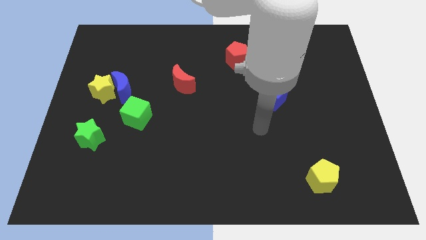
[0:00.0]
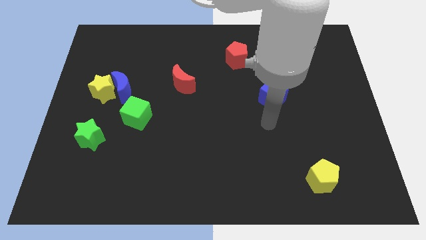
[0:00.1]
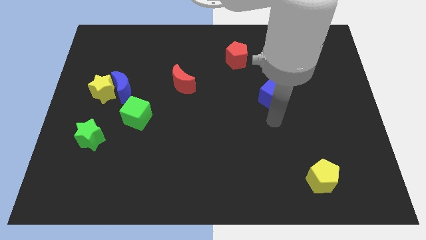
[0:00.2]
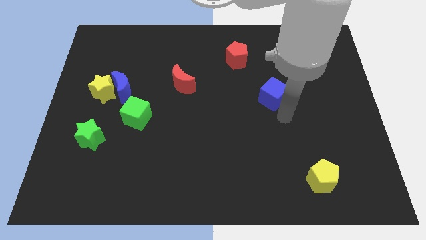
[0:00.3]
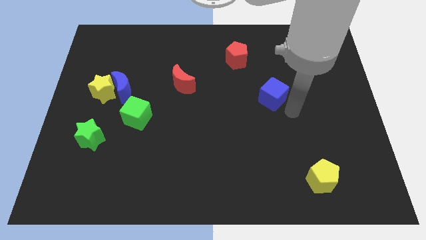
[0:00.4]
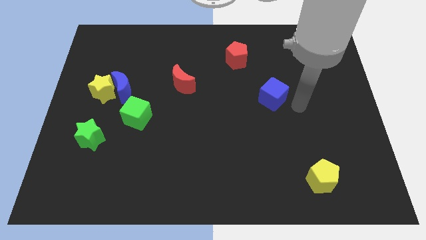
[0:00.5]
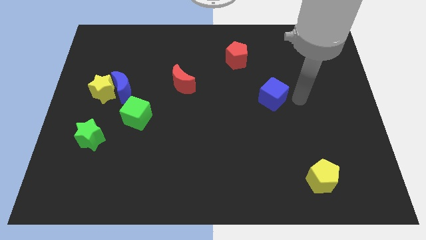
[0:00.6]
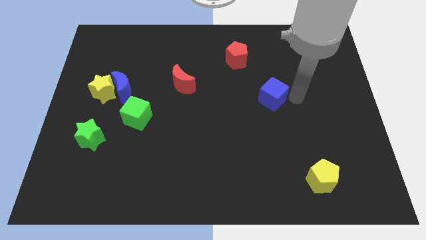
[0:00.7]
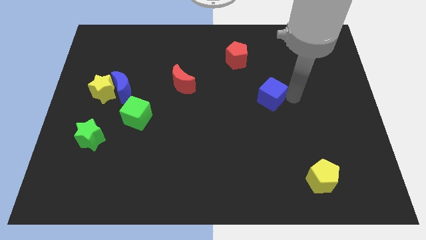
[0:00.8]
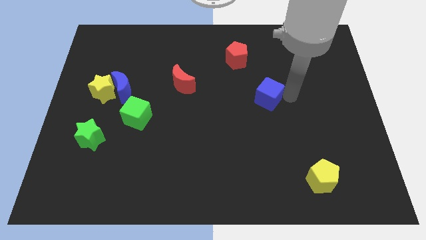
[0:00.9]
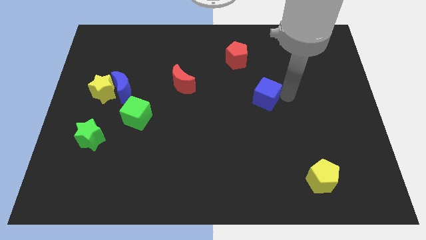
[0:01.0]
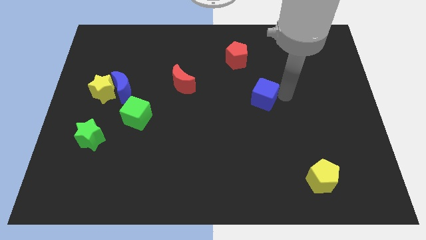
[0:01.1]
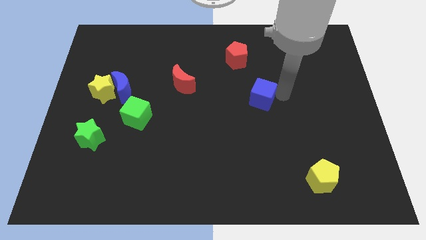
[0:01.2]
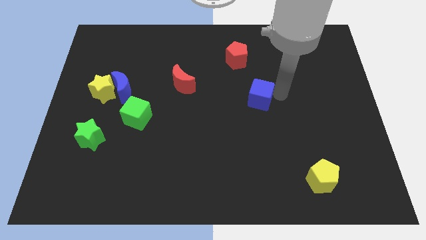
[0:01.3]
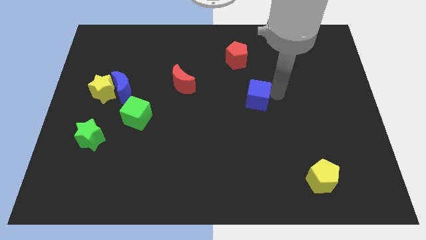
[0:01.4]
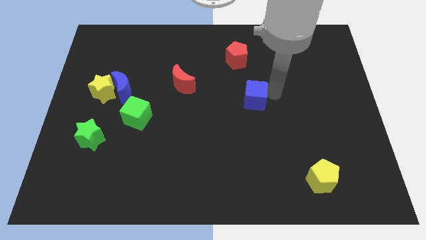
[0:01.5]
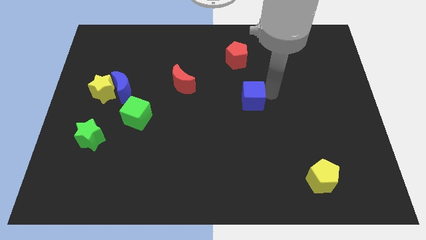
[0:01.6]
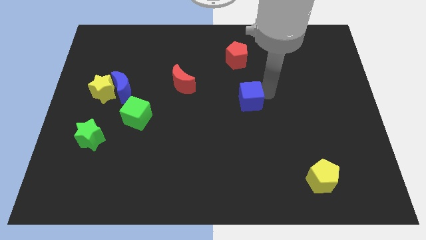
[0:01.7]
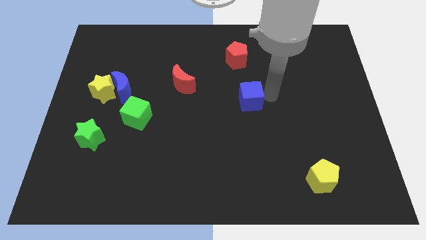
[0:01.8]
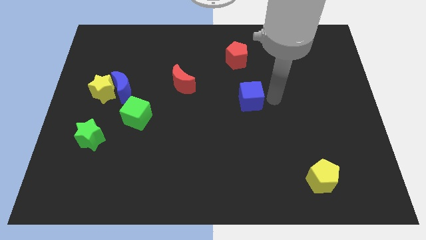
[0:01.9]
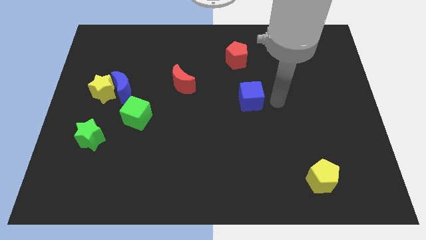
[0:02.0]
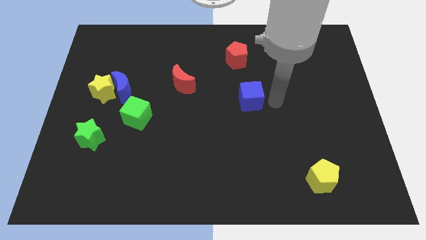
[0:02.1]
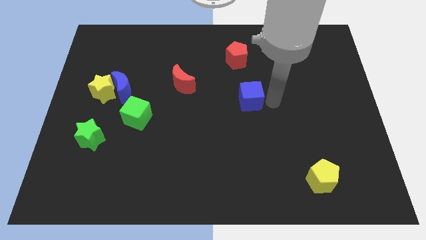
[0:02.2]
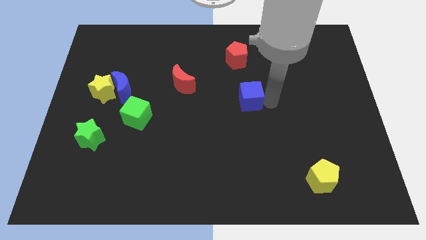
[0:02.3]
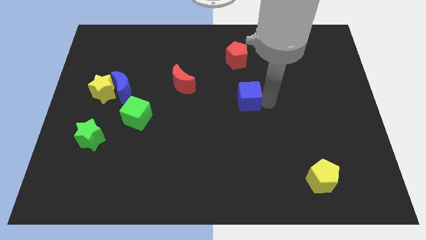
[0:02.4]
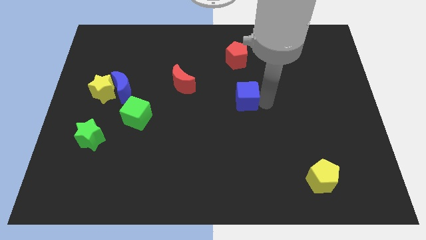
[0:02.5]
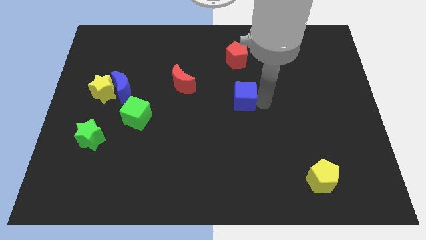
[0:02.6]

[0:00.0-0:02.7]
move the blue cube left a bit

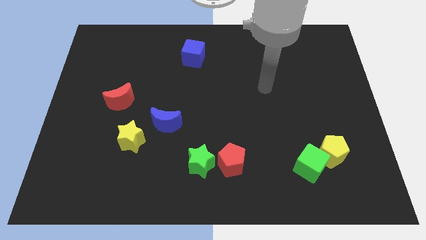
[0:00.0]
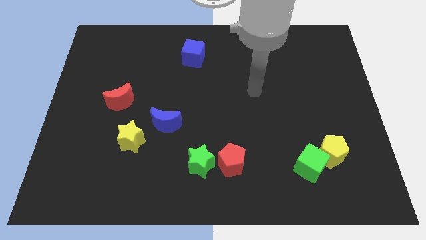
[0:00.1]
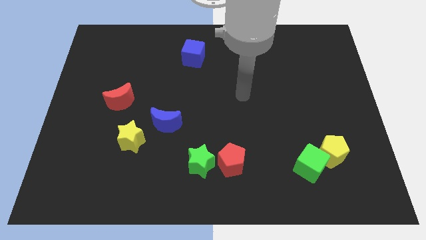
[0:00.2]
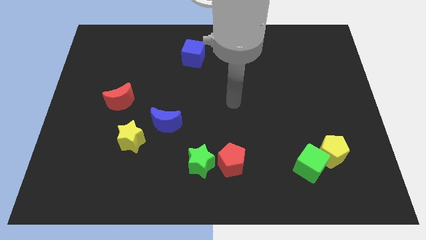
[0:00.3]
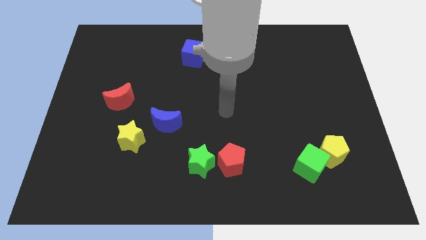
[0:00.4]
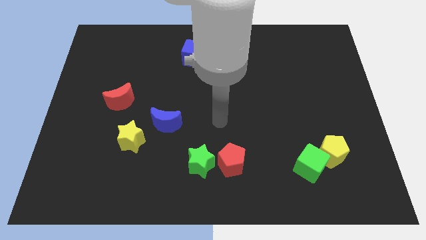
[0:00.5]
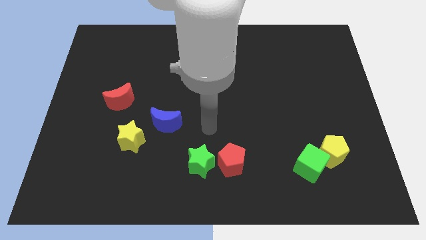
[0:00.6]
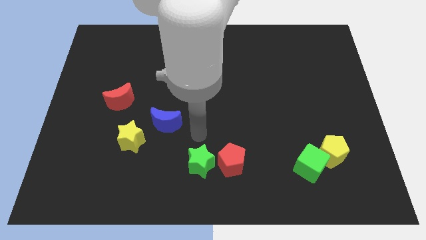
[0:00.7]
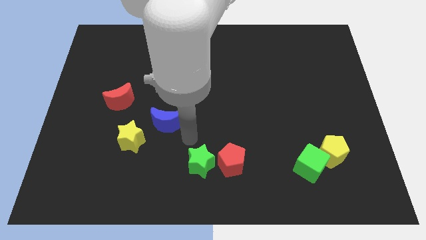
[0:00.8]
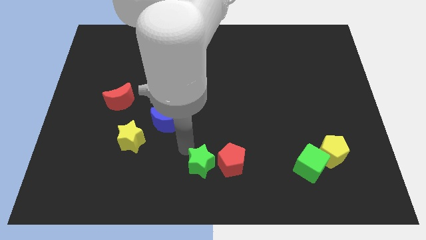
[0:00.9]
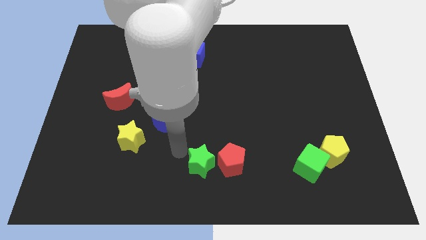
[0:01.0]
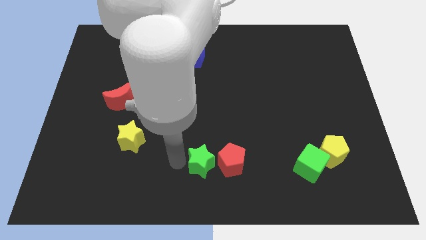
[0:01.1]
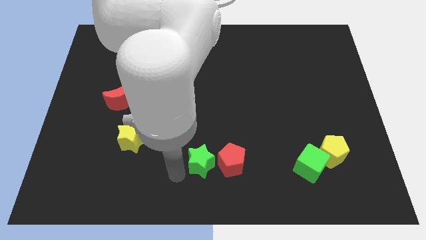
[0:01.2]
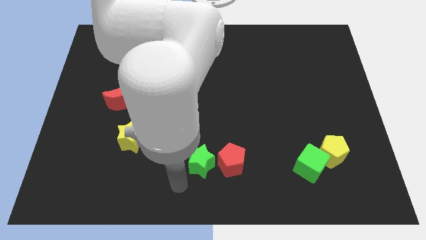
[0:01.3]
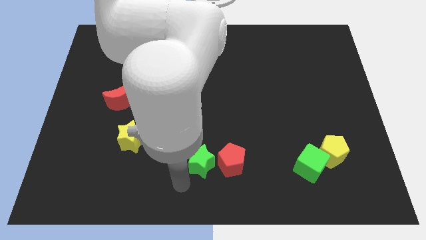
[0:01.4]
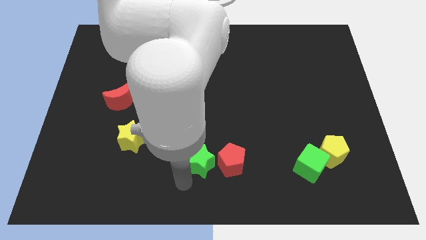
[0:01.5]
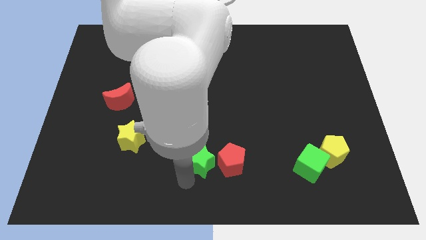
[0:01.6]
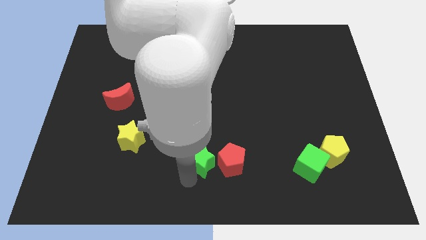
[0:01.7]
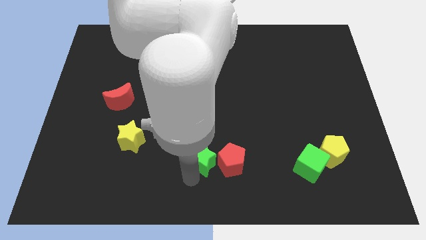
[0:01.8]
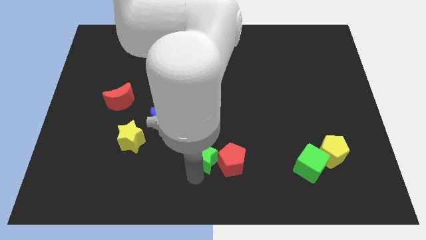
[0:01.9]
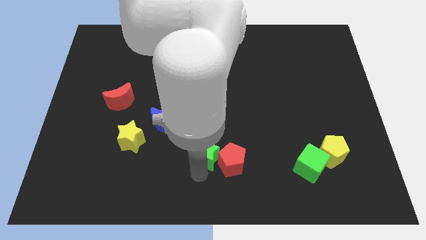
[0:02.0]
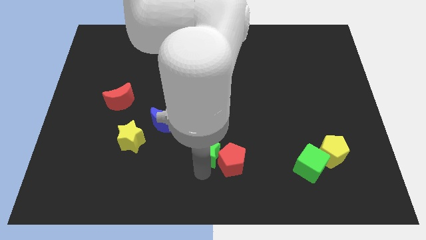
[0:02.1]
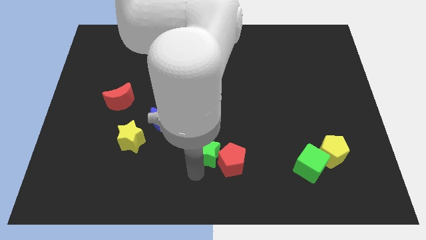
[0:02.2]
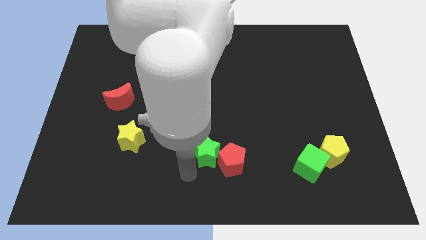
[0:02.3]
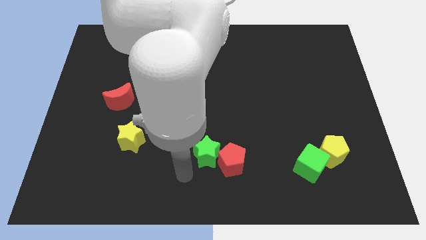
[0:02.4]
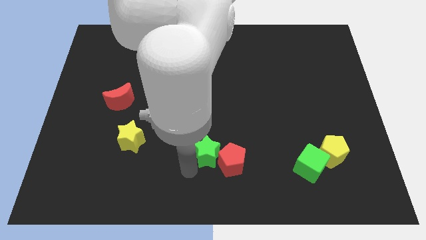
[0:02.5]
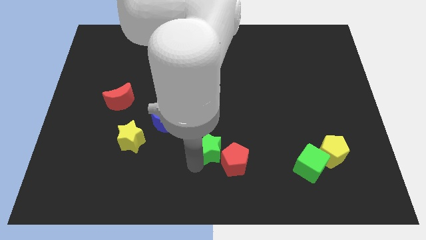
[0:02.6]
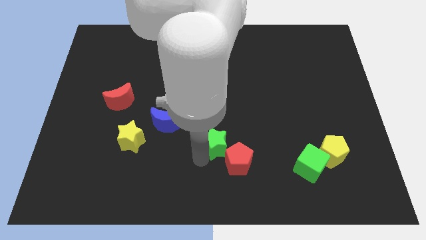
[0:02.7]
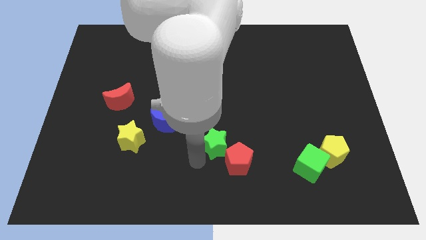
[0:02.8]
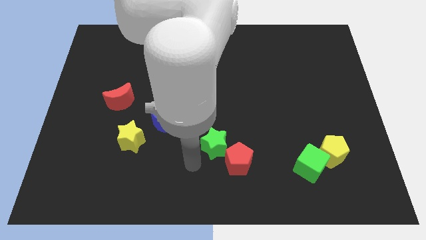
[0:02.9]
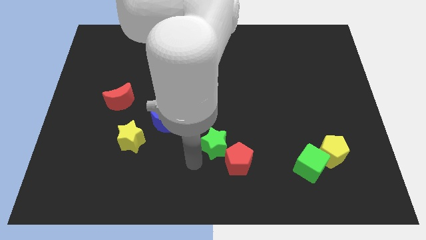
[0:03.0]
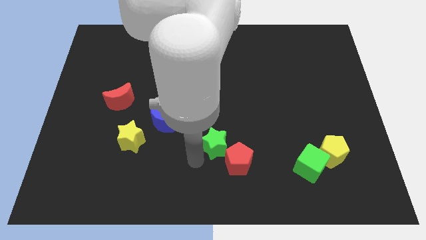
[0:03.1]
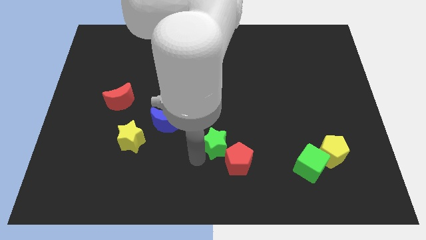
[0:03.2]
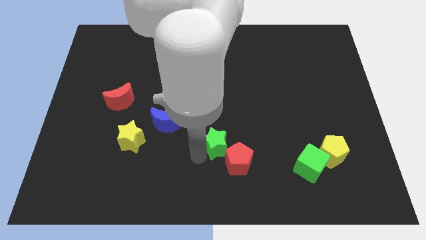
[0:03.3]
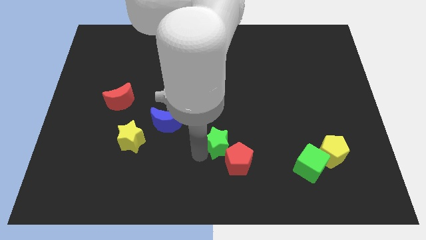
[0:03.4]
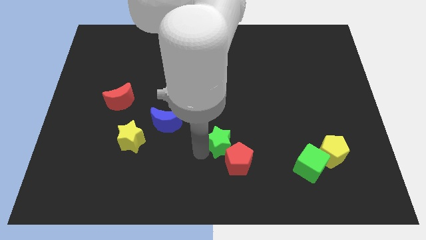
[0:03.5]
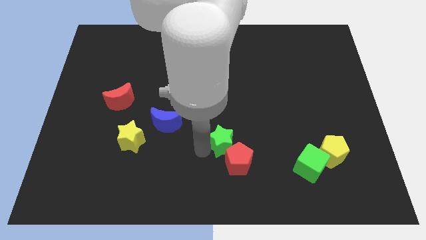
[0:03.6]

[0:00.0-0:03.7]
slide the green star upwards and then to the right a little bit

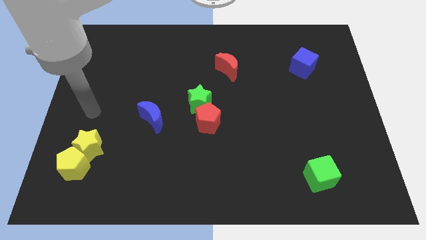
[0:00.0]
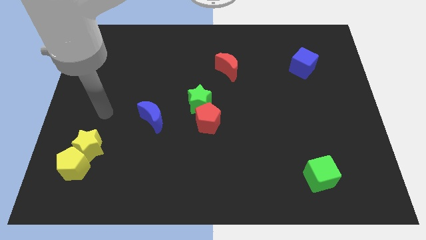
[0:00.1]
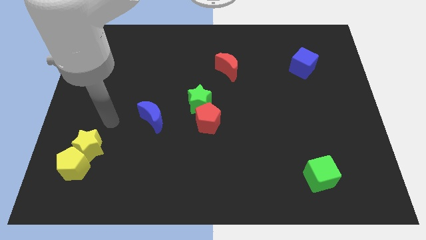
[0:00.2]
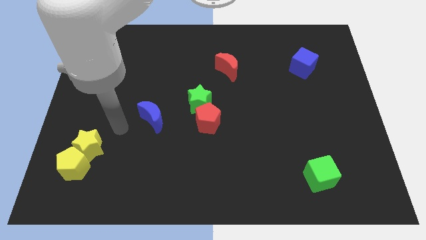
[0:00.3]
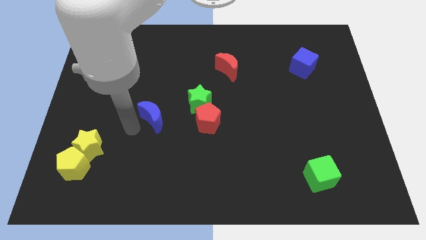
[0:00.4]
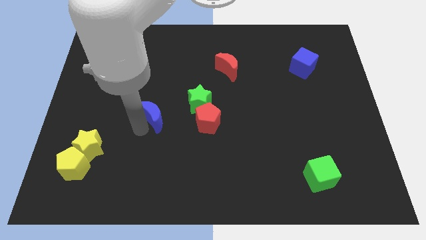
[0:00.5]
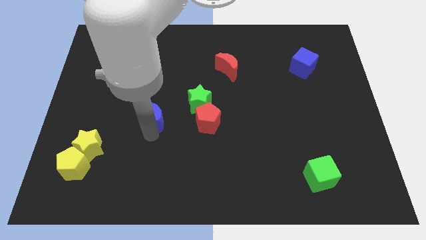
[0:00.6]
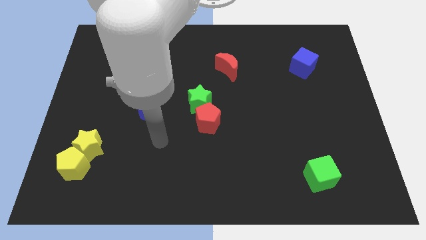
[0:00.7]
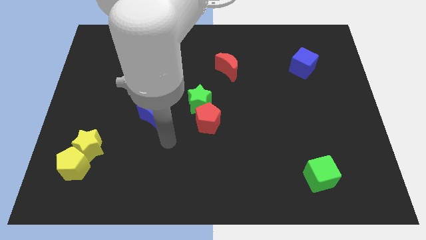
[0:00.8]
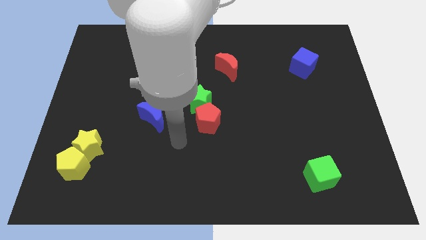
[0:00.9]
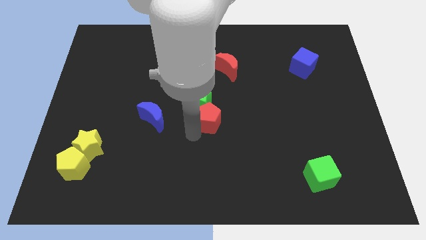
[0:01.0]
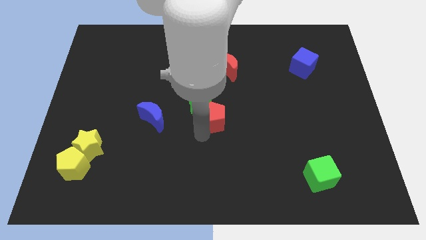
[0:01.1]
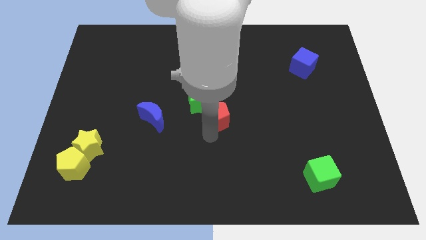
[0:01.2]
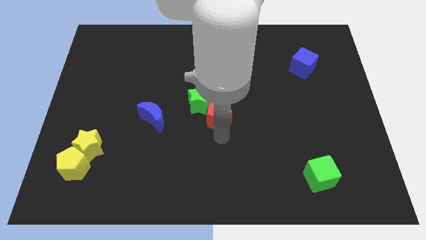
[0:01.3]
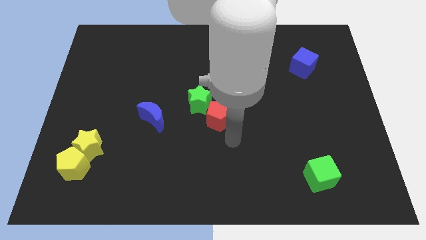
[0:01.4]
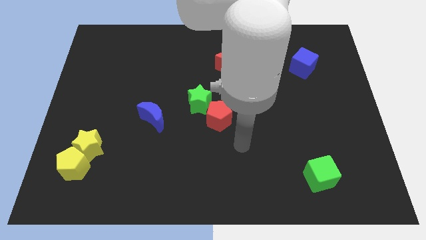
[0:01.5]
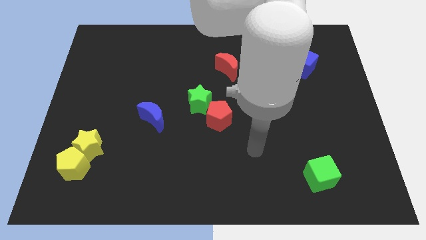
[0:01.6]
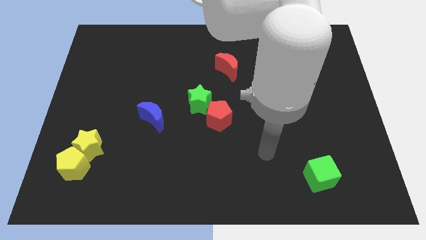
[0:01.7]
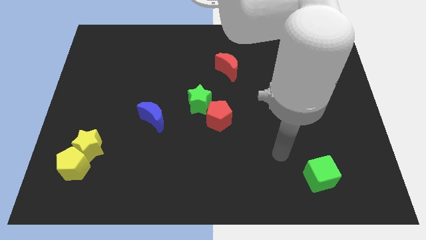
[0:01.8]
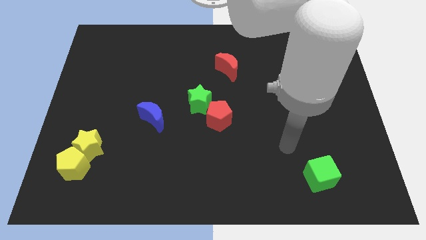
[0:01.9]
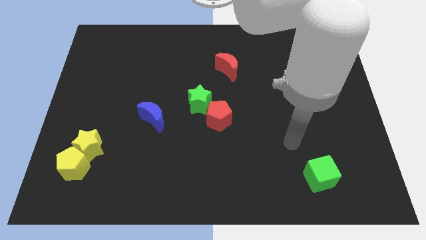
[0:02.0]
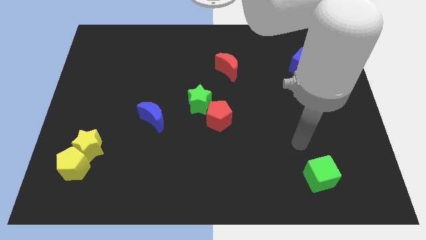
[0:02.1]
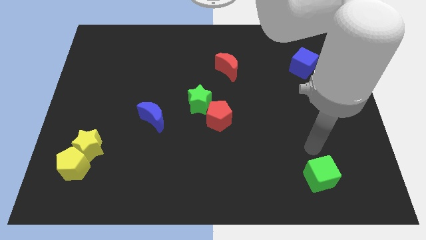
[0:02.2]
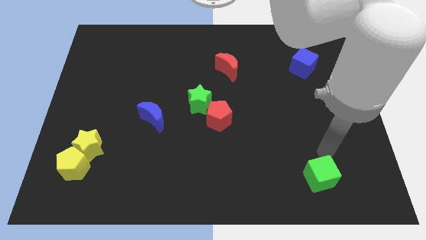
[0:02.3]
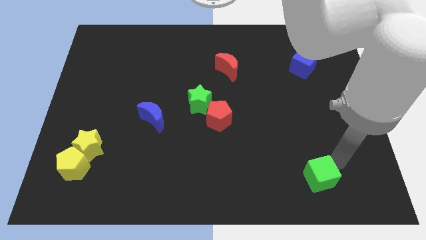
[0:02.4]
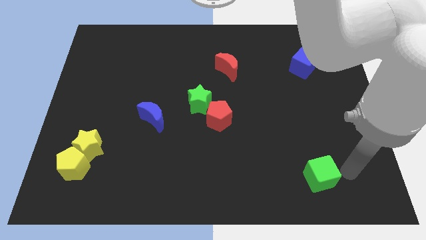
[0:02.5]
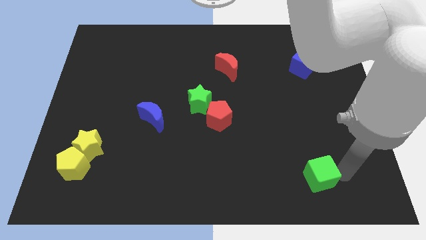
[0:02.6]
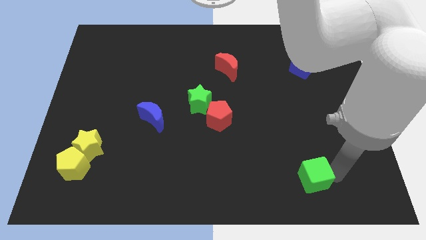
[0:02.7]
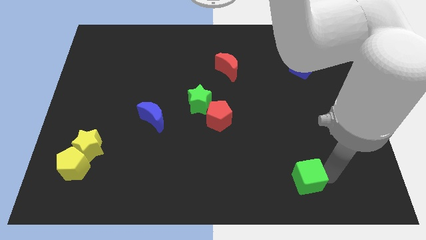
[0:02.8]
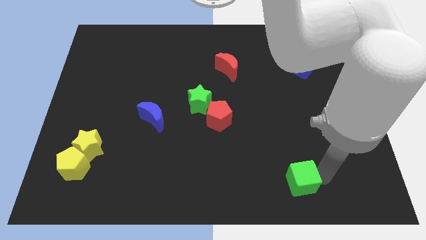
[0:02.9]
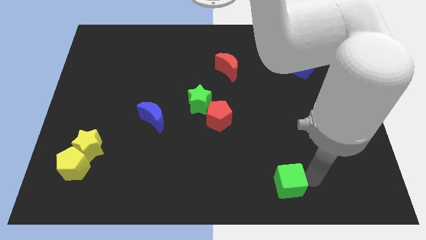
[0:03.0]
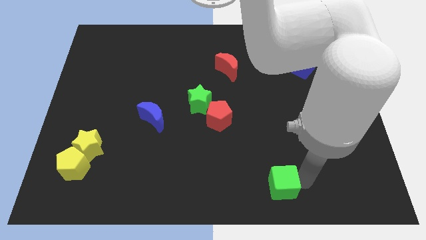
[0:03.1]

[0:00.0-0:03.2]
move the green cube left a little bit
